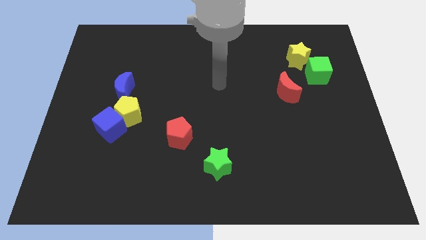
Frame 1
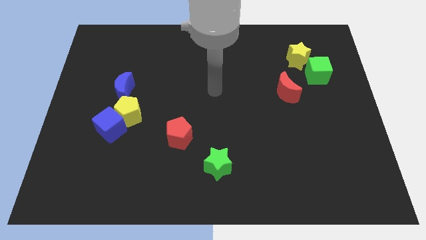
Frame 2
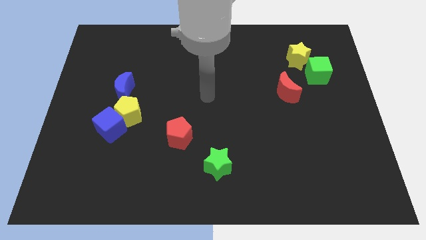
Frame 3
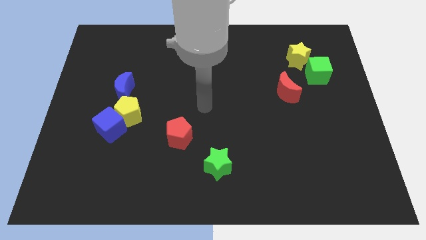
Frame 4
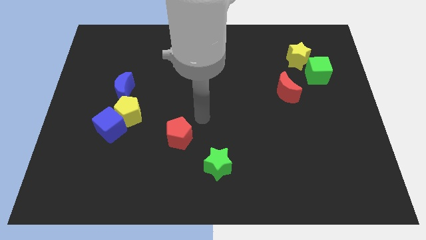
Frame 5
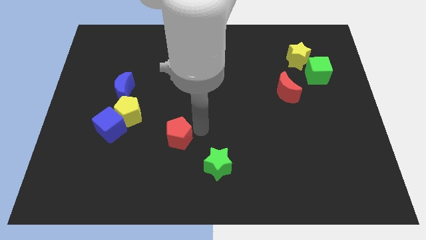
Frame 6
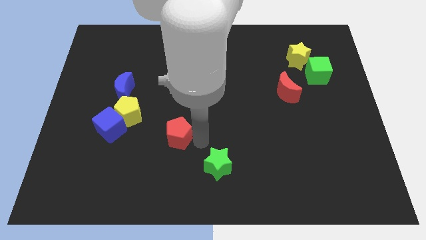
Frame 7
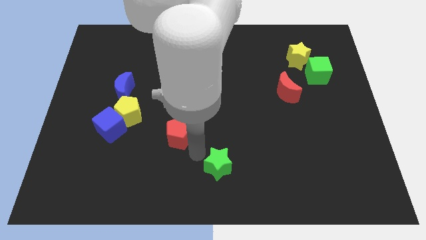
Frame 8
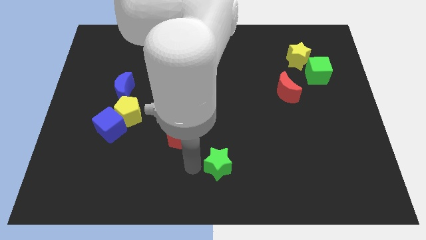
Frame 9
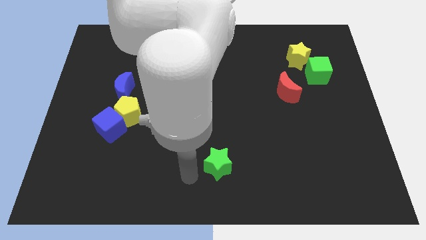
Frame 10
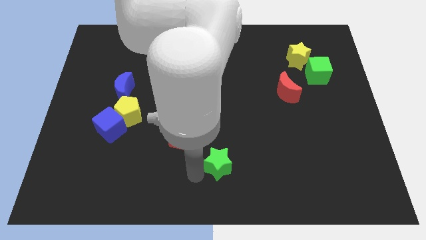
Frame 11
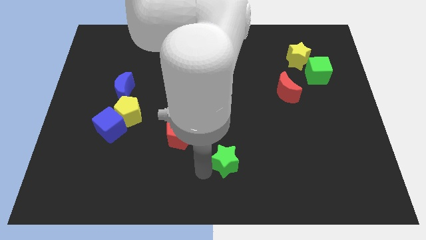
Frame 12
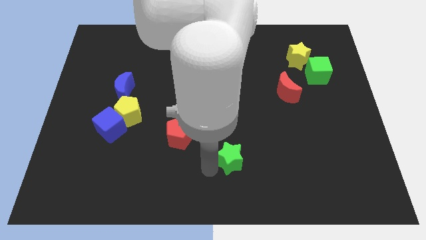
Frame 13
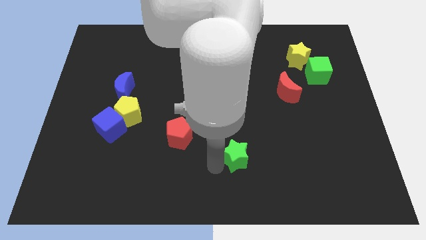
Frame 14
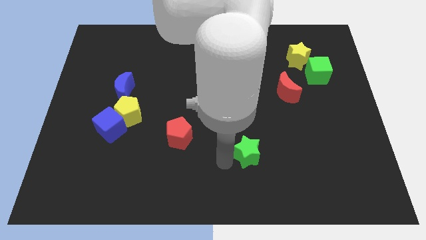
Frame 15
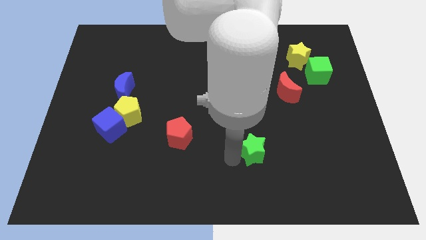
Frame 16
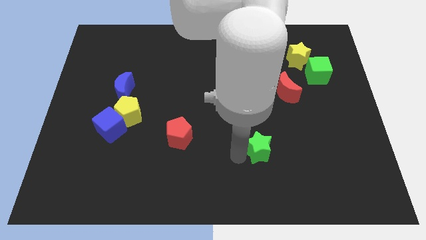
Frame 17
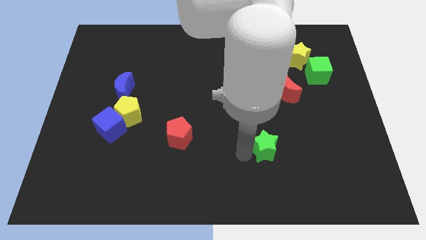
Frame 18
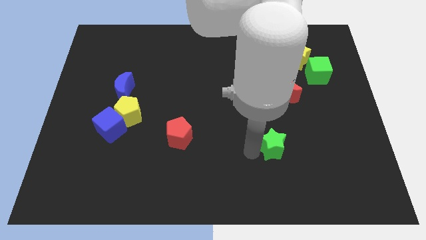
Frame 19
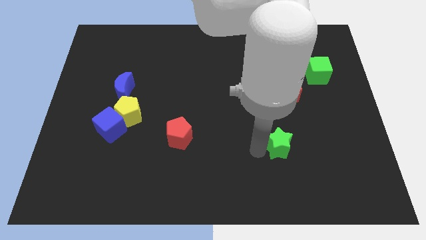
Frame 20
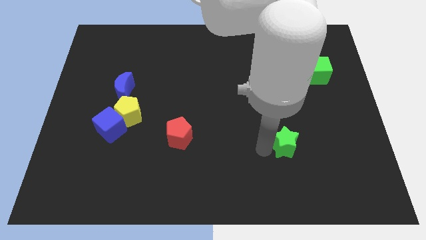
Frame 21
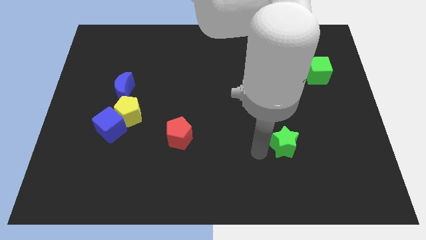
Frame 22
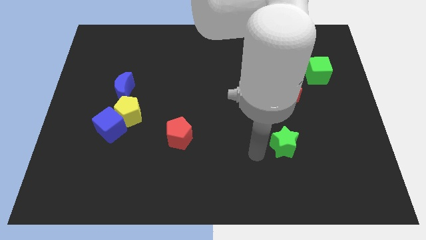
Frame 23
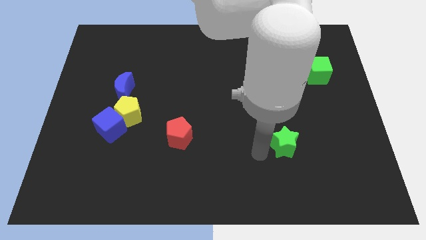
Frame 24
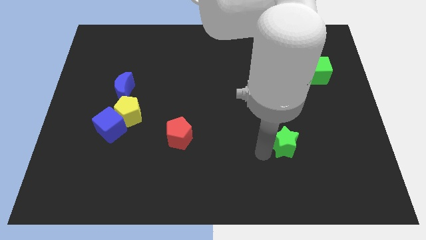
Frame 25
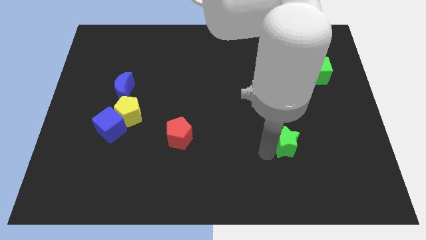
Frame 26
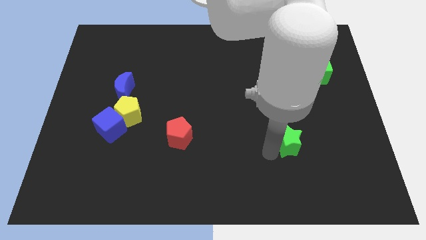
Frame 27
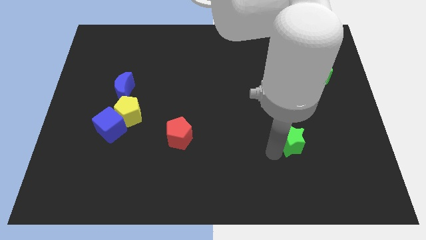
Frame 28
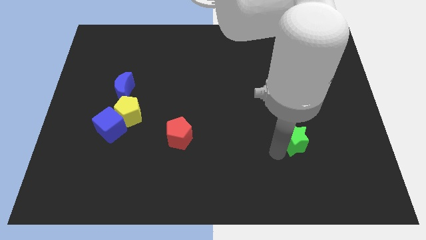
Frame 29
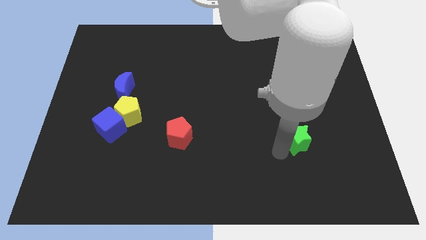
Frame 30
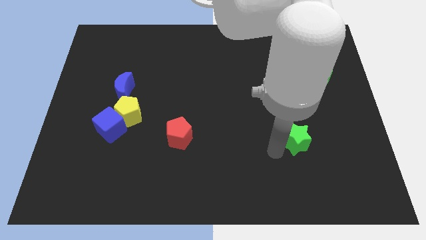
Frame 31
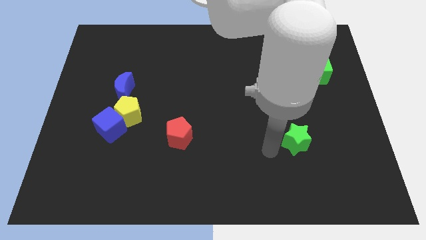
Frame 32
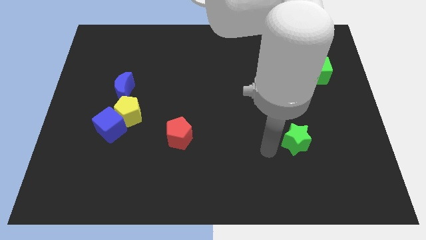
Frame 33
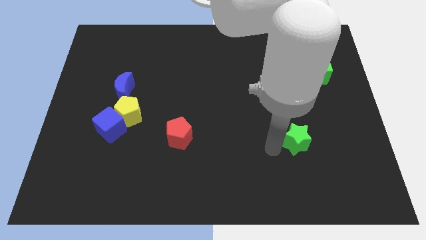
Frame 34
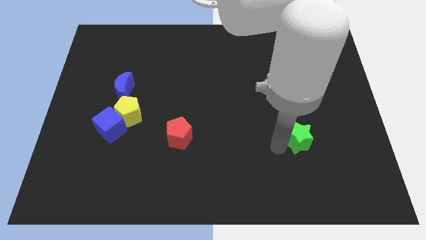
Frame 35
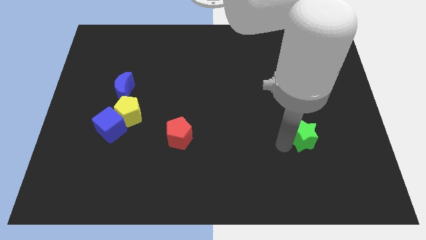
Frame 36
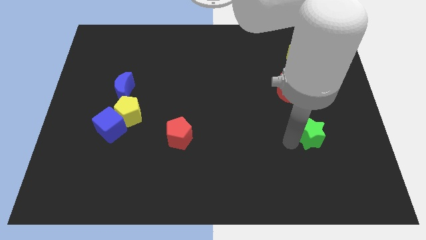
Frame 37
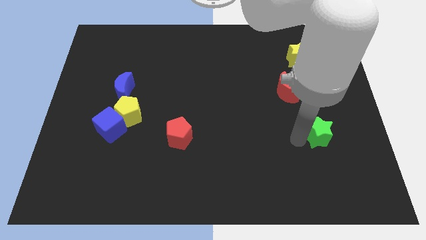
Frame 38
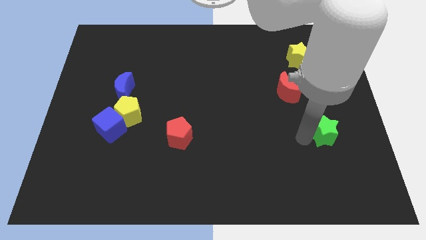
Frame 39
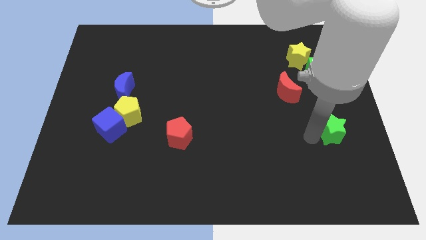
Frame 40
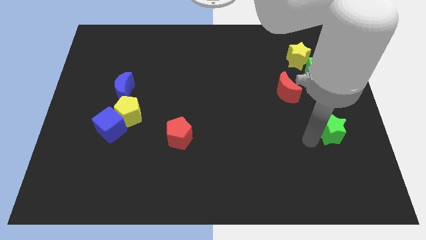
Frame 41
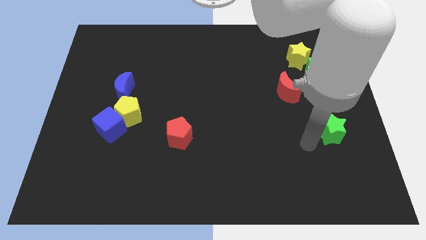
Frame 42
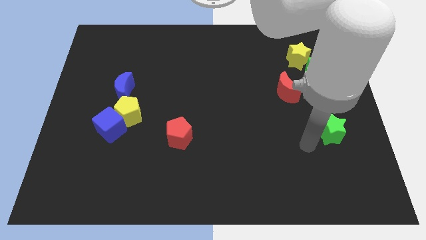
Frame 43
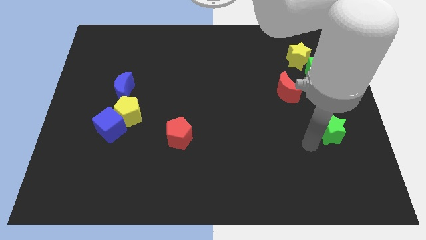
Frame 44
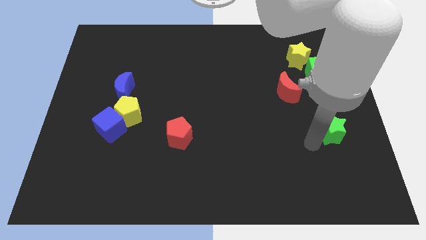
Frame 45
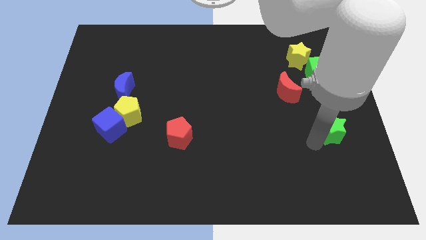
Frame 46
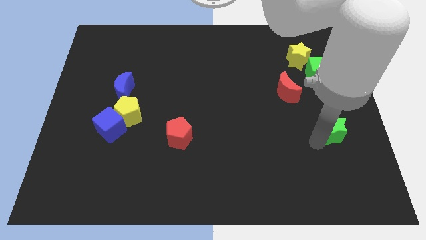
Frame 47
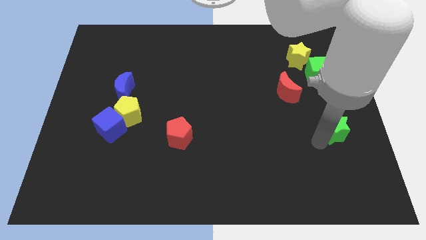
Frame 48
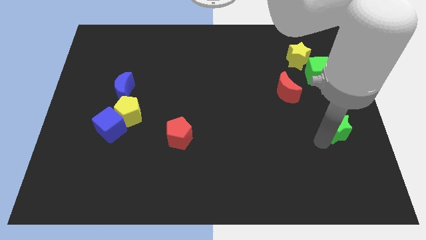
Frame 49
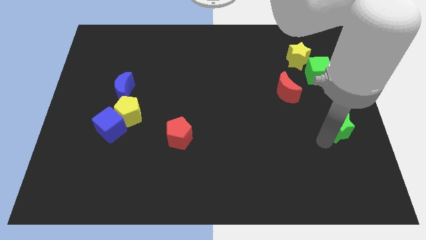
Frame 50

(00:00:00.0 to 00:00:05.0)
put the green star to the center right

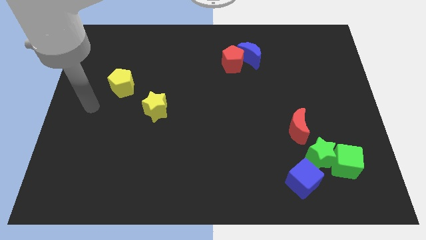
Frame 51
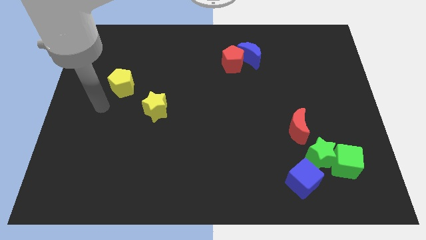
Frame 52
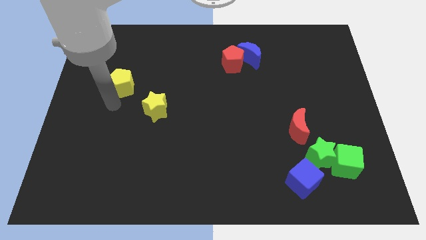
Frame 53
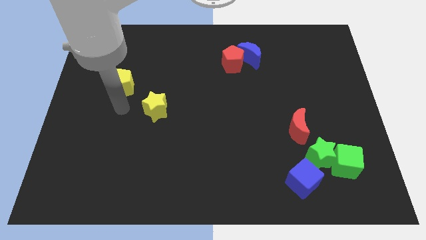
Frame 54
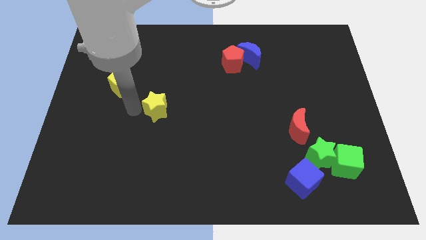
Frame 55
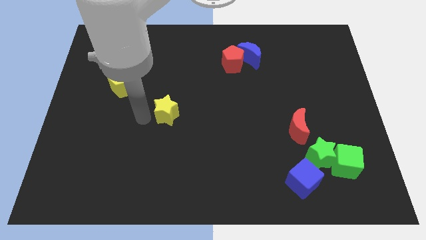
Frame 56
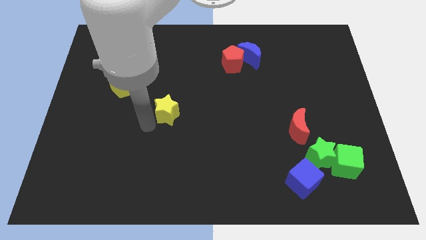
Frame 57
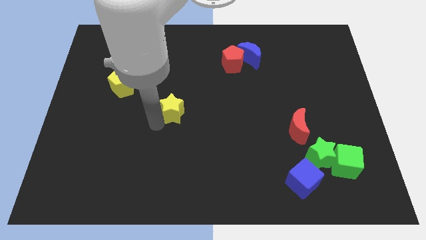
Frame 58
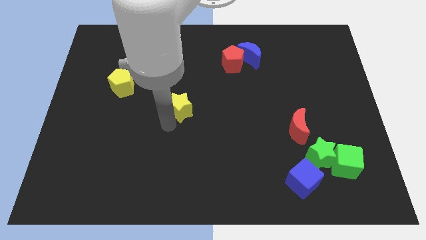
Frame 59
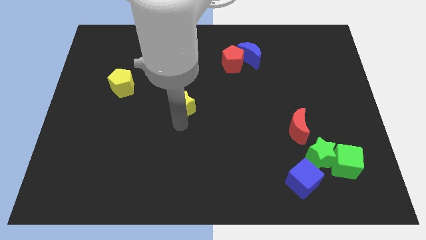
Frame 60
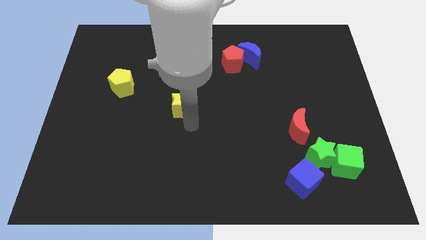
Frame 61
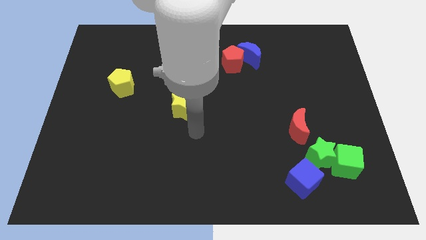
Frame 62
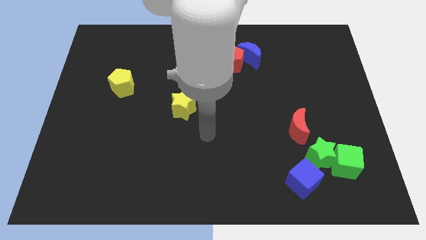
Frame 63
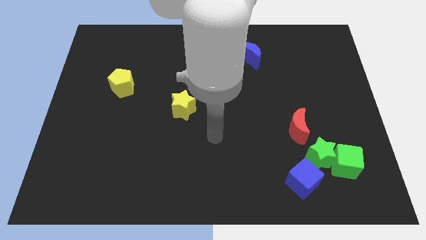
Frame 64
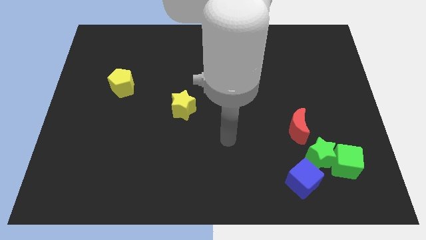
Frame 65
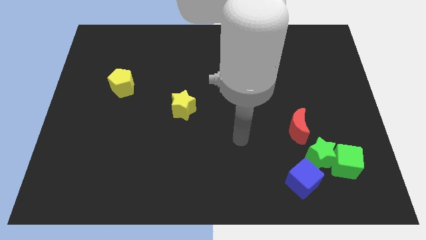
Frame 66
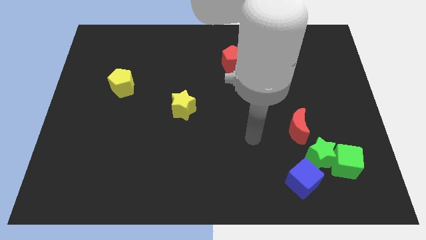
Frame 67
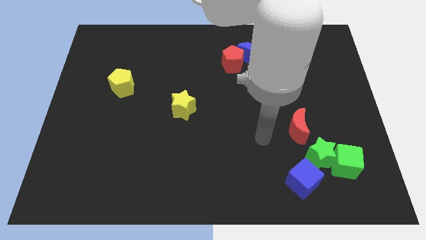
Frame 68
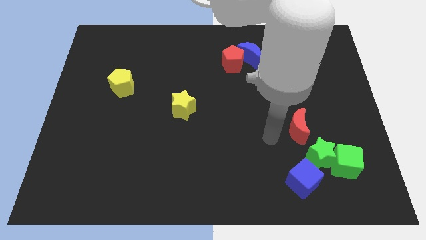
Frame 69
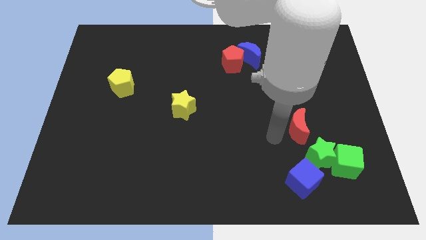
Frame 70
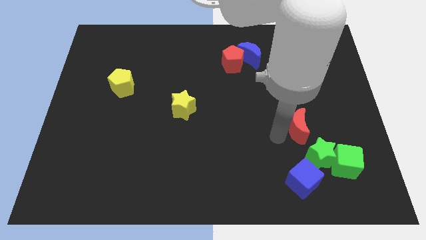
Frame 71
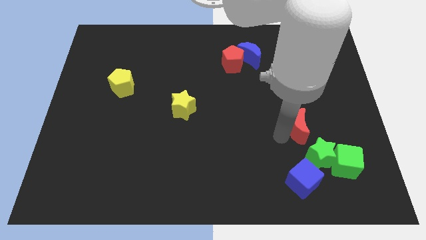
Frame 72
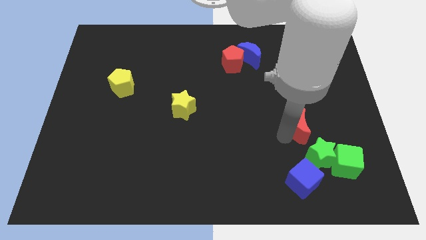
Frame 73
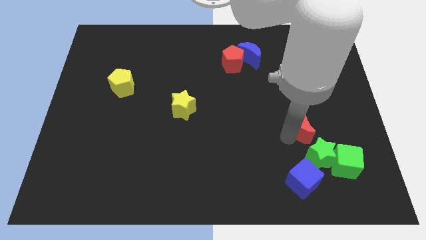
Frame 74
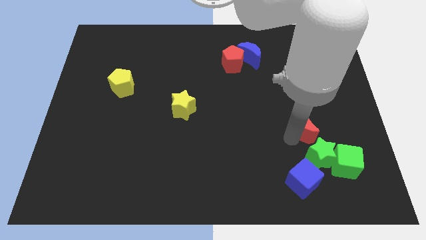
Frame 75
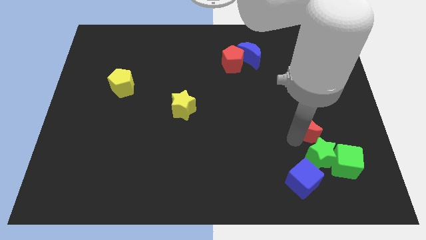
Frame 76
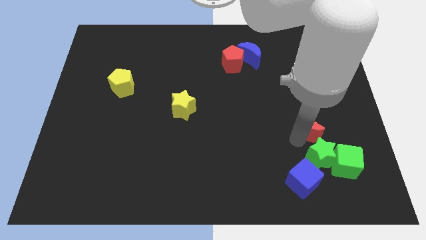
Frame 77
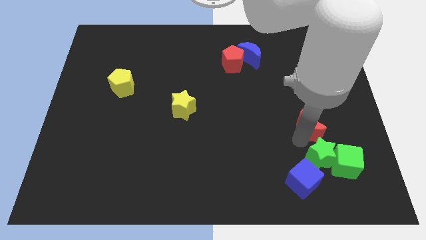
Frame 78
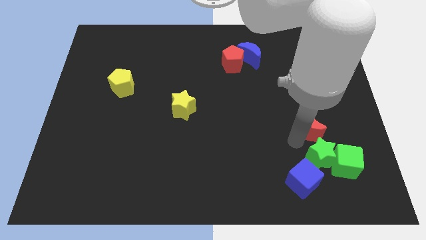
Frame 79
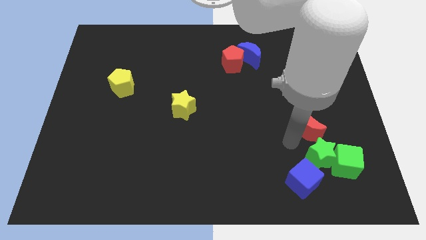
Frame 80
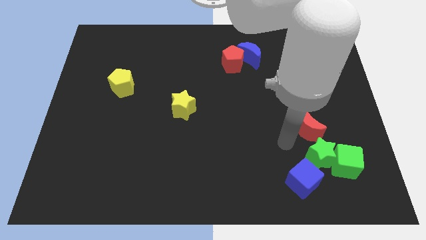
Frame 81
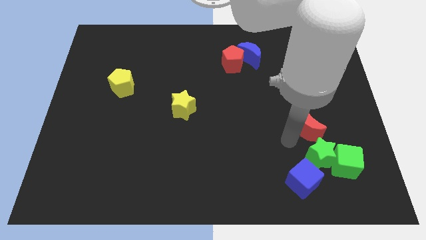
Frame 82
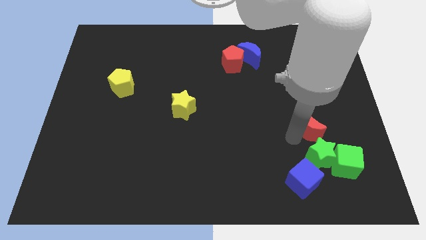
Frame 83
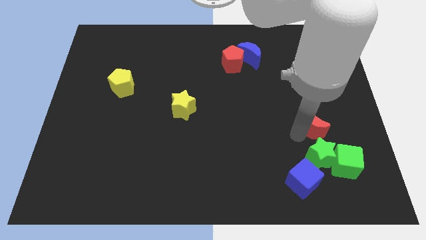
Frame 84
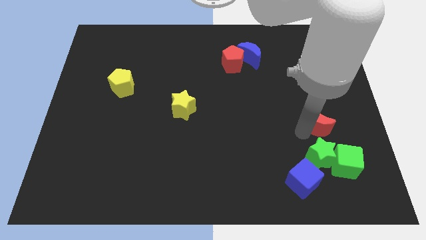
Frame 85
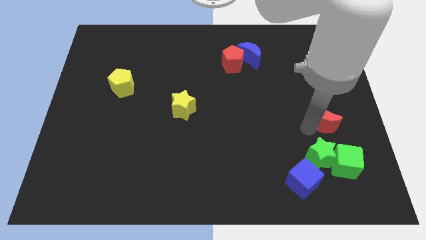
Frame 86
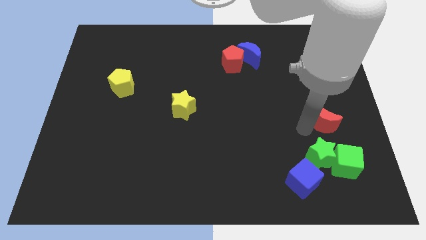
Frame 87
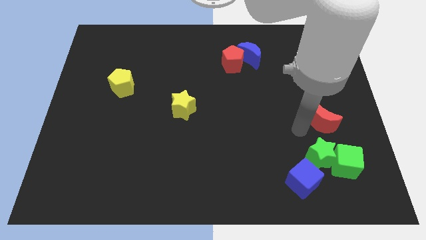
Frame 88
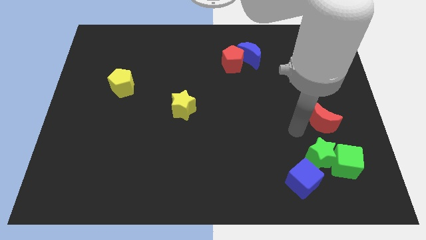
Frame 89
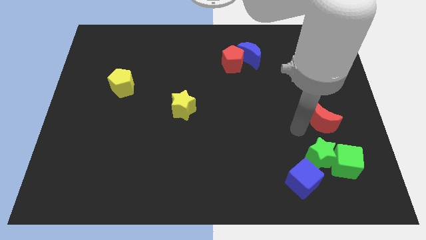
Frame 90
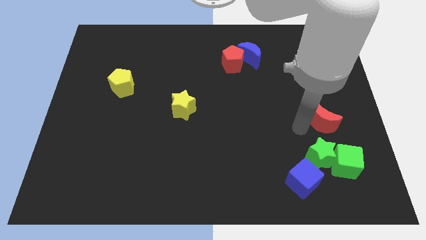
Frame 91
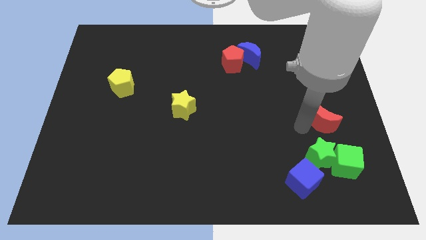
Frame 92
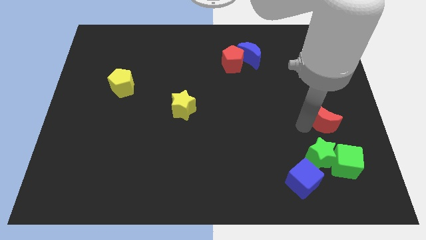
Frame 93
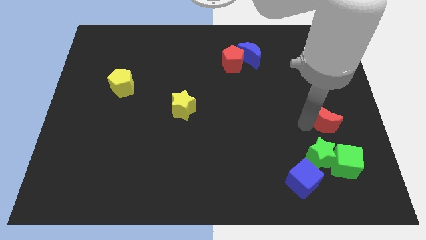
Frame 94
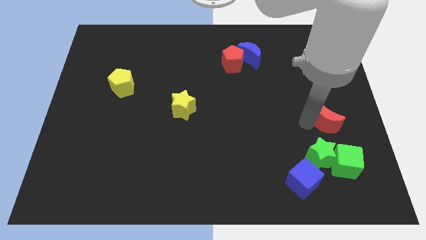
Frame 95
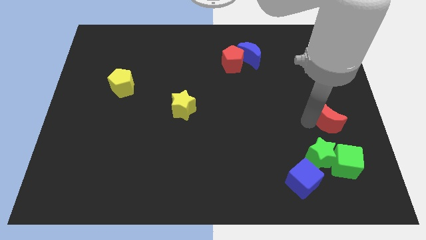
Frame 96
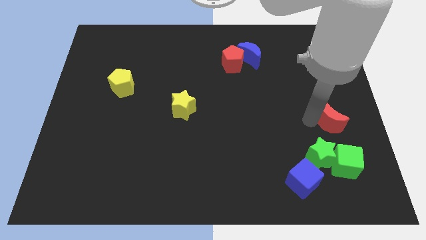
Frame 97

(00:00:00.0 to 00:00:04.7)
move the red moon to the right side
